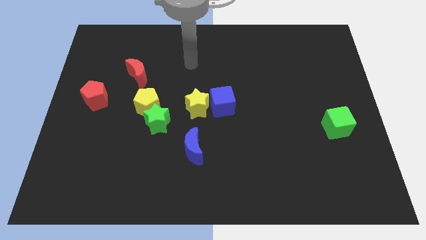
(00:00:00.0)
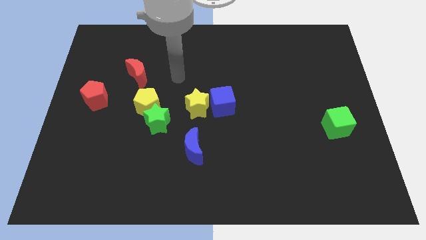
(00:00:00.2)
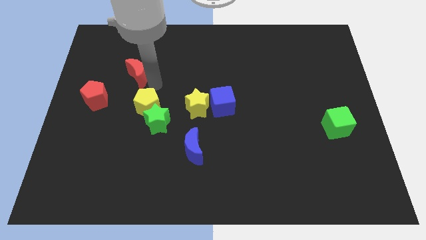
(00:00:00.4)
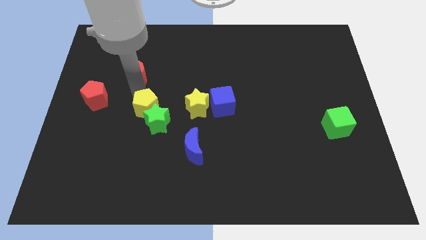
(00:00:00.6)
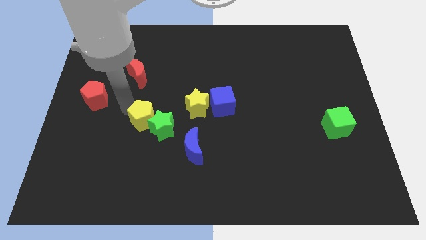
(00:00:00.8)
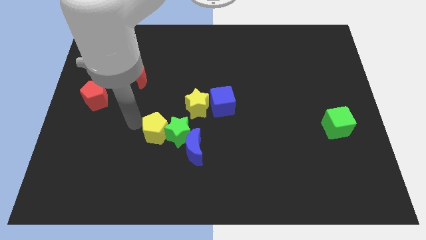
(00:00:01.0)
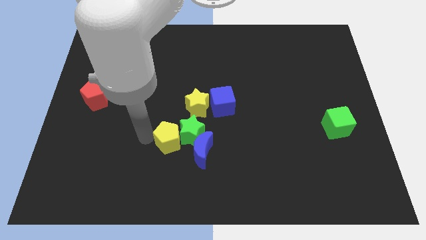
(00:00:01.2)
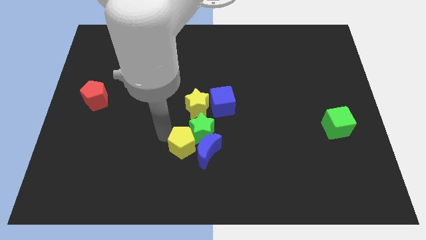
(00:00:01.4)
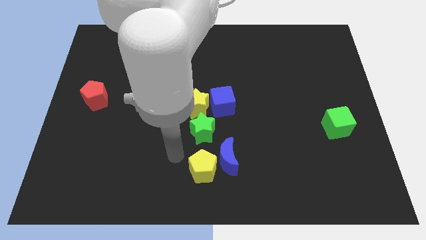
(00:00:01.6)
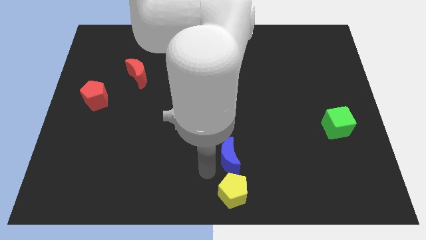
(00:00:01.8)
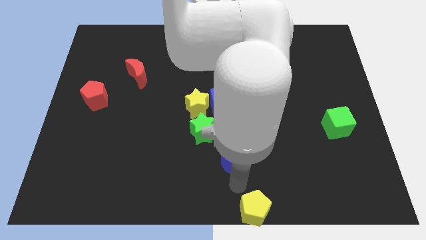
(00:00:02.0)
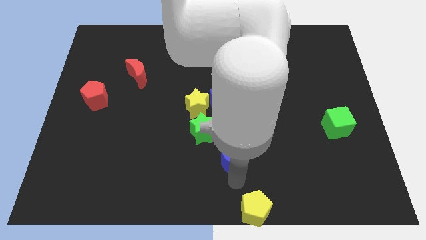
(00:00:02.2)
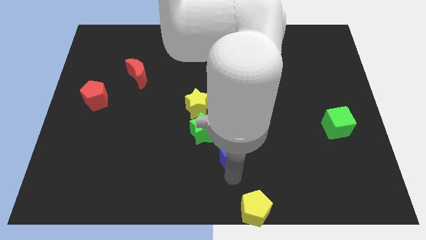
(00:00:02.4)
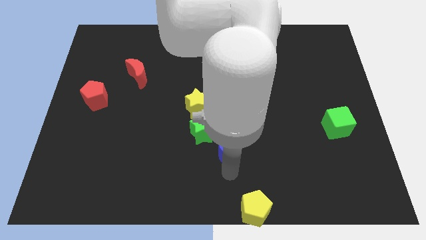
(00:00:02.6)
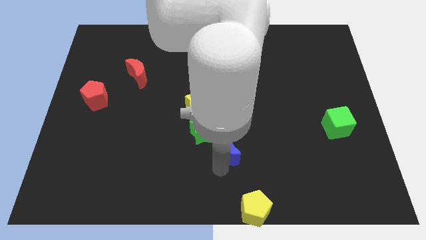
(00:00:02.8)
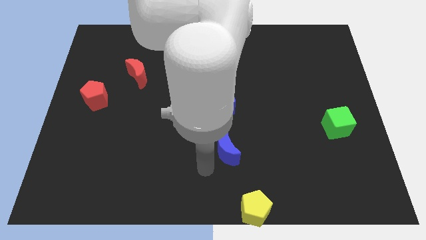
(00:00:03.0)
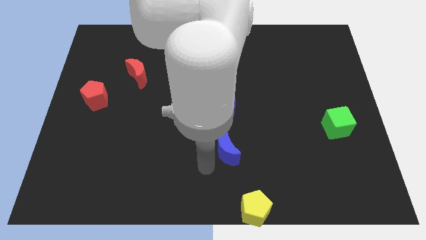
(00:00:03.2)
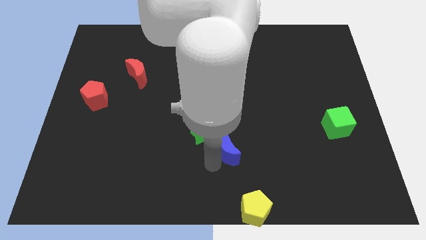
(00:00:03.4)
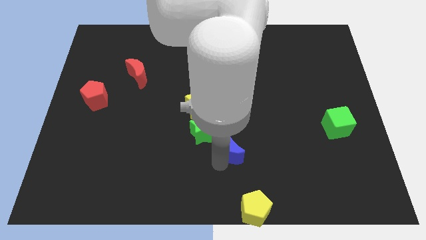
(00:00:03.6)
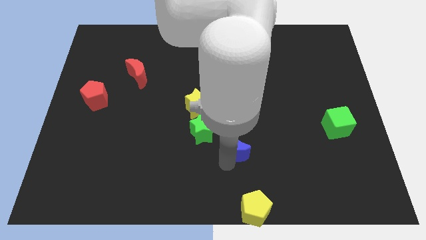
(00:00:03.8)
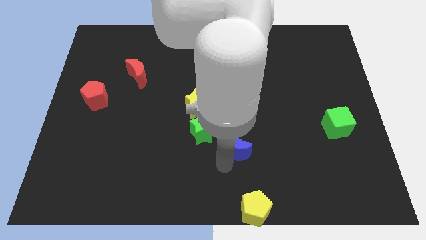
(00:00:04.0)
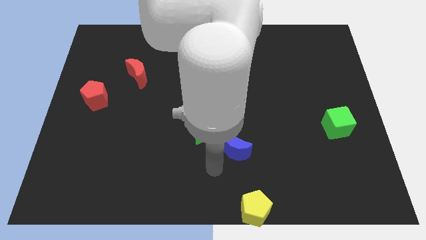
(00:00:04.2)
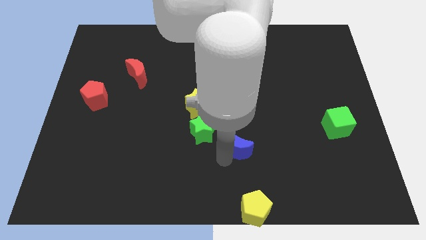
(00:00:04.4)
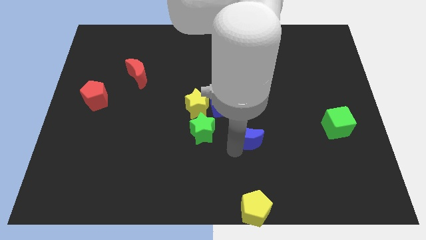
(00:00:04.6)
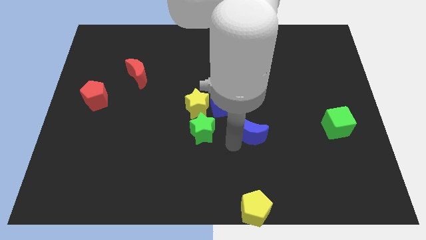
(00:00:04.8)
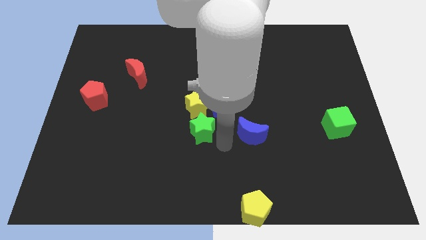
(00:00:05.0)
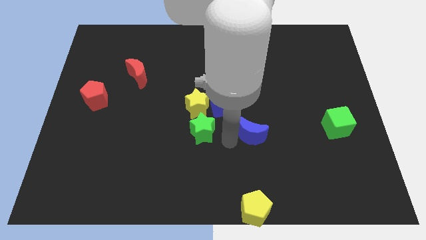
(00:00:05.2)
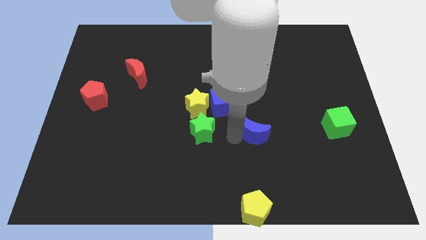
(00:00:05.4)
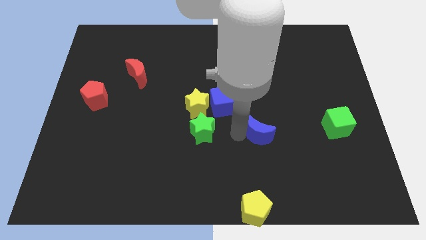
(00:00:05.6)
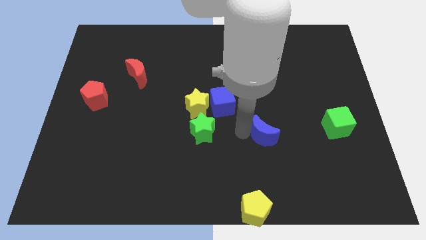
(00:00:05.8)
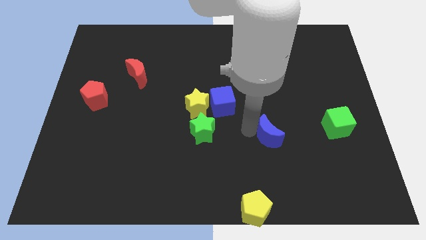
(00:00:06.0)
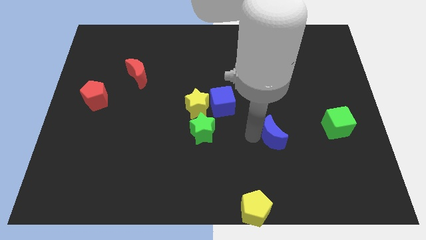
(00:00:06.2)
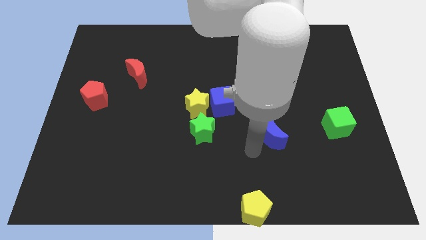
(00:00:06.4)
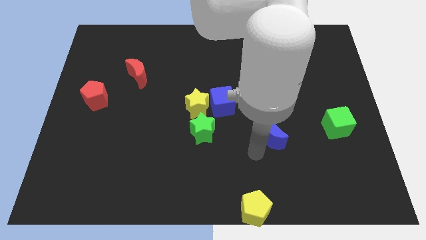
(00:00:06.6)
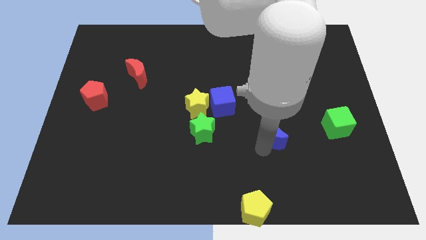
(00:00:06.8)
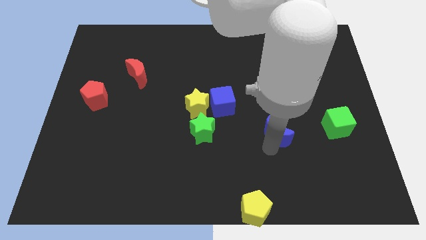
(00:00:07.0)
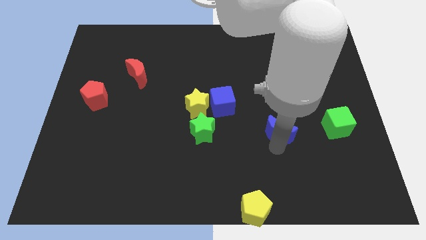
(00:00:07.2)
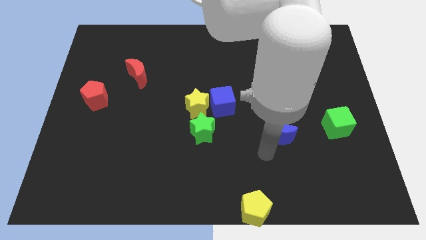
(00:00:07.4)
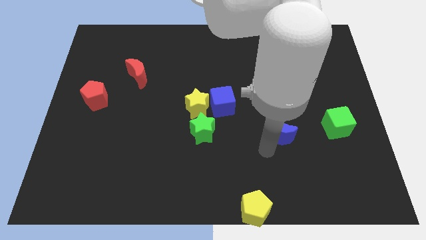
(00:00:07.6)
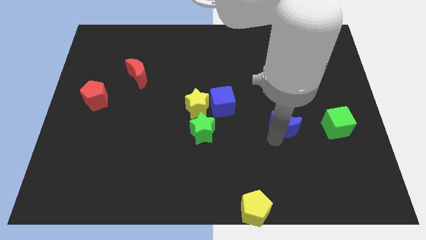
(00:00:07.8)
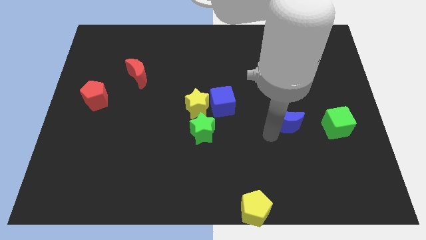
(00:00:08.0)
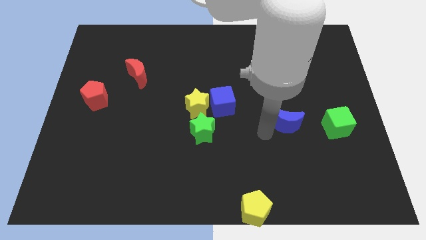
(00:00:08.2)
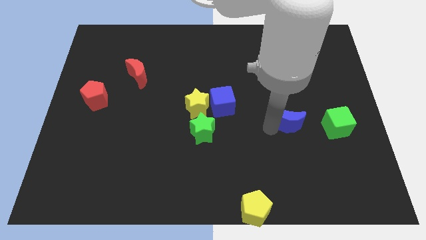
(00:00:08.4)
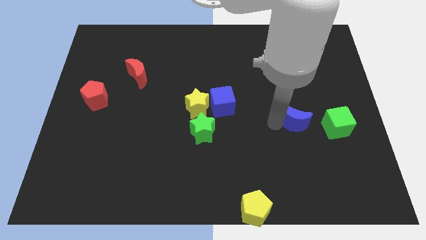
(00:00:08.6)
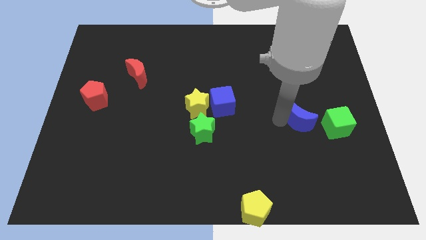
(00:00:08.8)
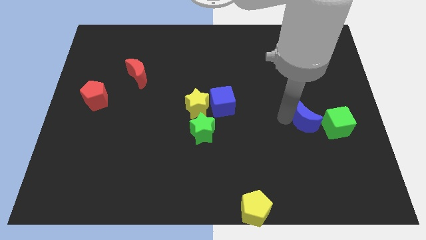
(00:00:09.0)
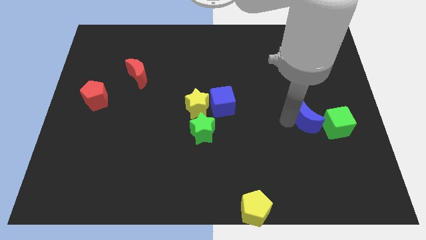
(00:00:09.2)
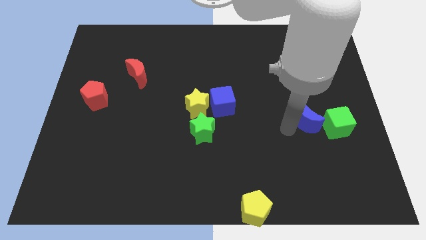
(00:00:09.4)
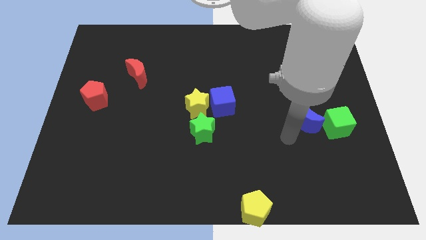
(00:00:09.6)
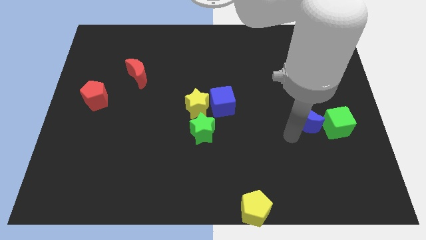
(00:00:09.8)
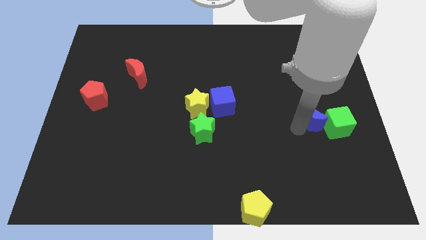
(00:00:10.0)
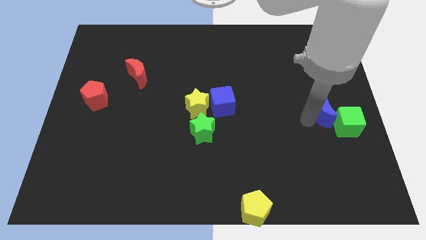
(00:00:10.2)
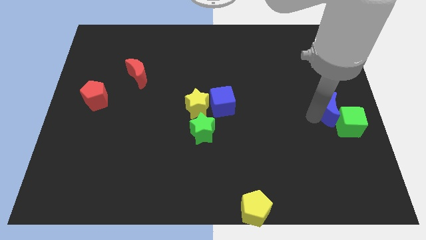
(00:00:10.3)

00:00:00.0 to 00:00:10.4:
move the blue moon to the center right

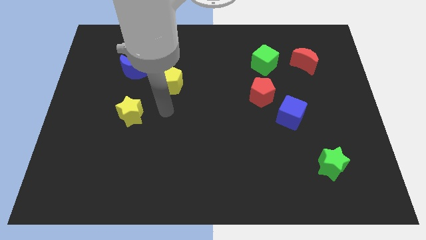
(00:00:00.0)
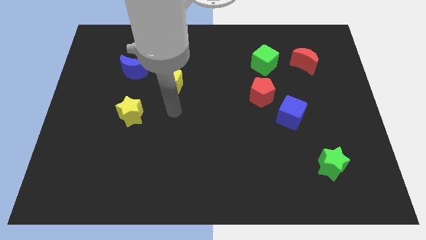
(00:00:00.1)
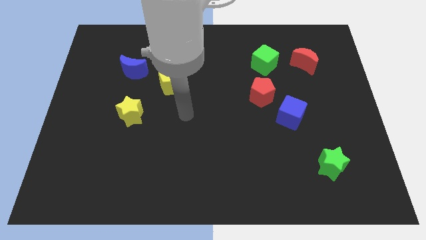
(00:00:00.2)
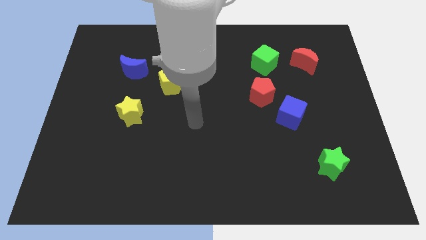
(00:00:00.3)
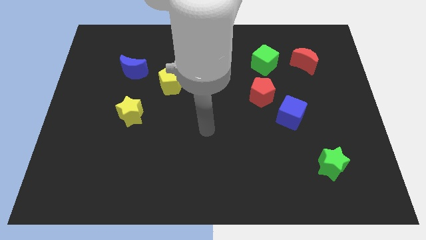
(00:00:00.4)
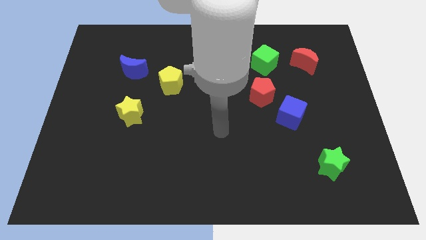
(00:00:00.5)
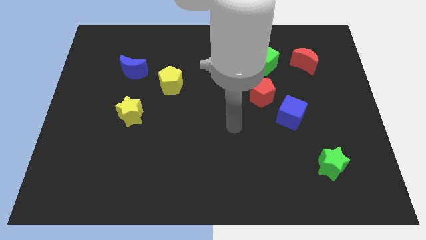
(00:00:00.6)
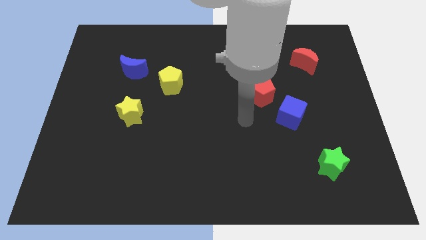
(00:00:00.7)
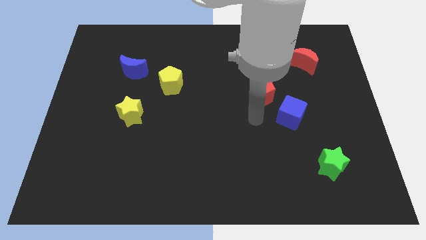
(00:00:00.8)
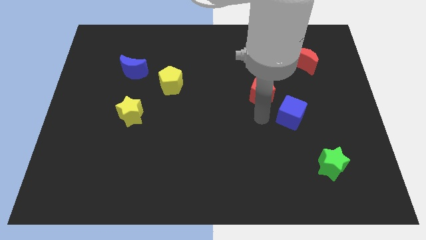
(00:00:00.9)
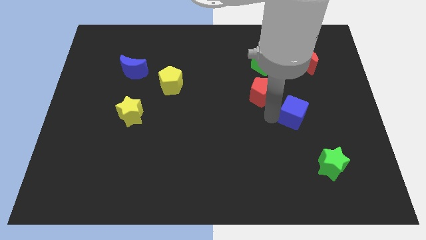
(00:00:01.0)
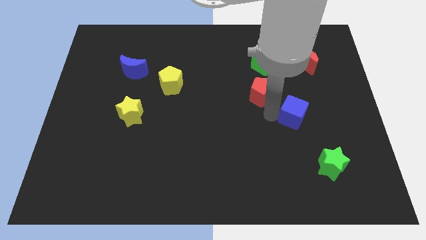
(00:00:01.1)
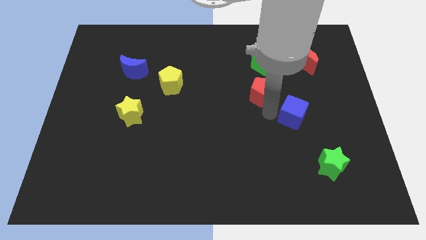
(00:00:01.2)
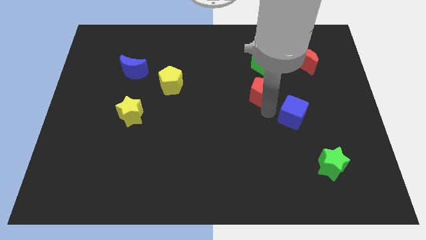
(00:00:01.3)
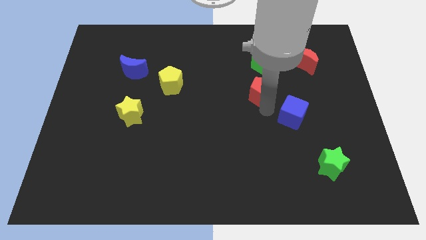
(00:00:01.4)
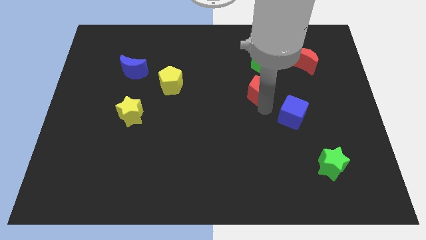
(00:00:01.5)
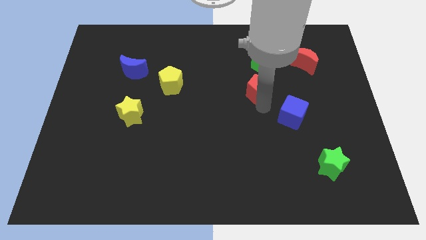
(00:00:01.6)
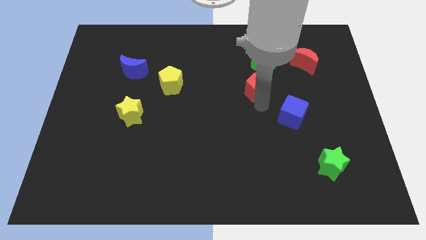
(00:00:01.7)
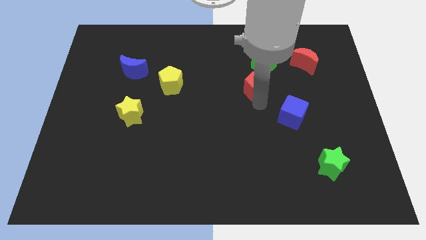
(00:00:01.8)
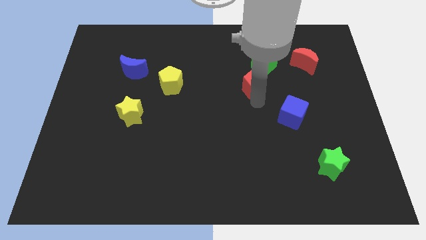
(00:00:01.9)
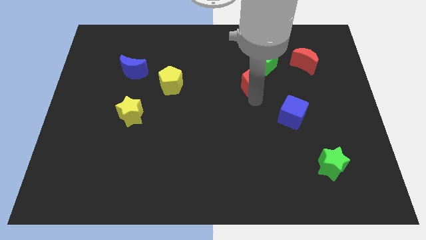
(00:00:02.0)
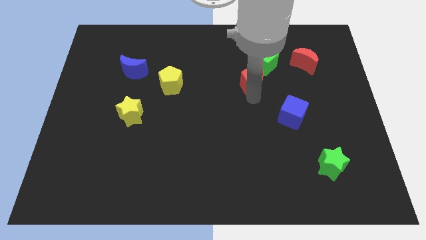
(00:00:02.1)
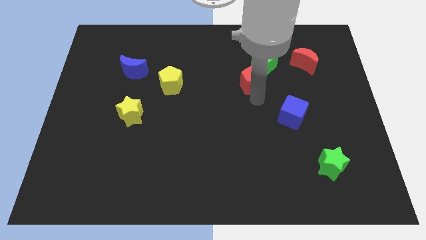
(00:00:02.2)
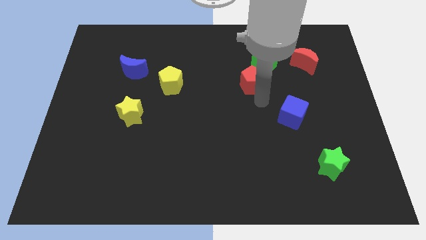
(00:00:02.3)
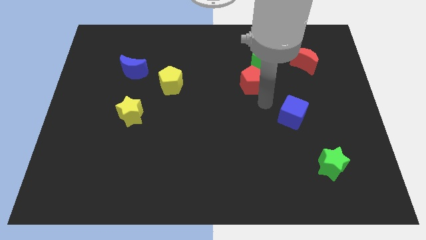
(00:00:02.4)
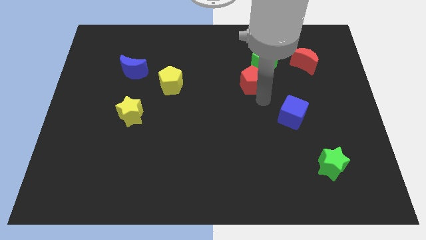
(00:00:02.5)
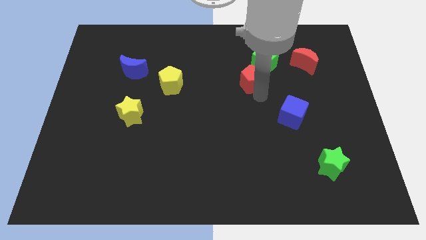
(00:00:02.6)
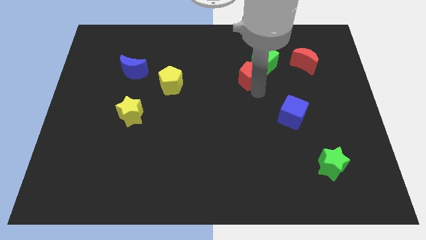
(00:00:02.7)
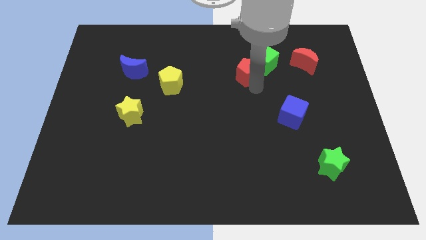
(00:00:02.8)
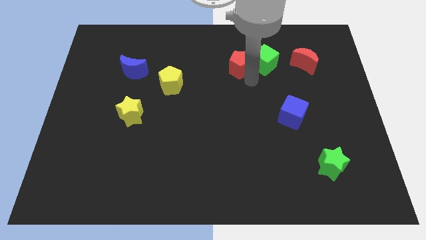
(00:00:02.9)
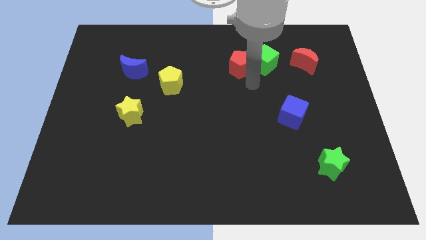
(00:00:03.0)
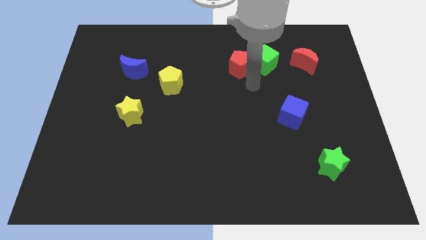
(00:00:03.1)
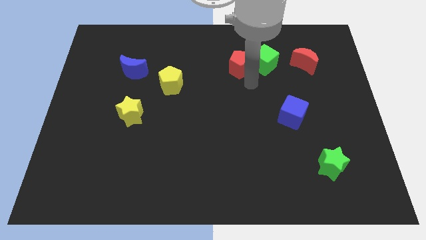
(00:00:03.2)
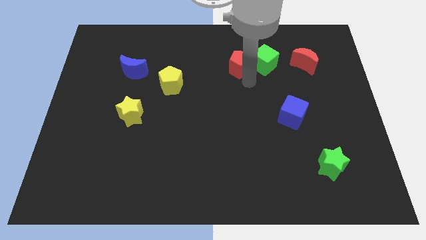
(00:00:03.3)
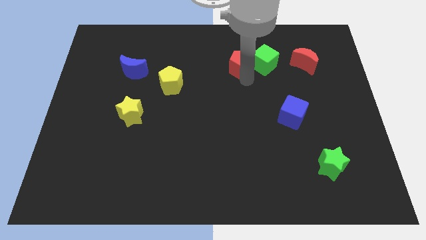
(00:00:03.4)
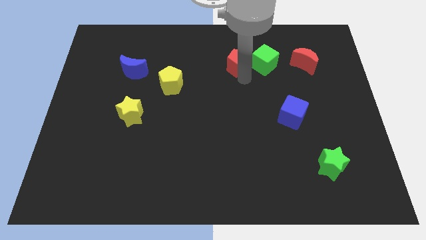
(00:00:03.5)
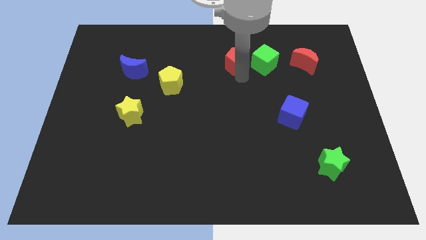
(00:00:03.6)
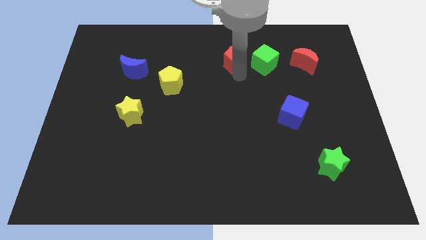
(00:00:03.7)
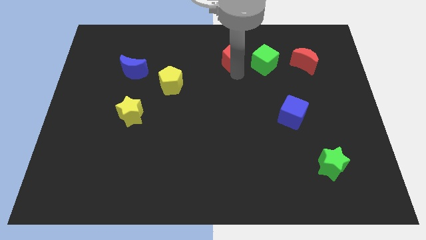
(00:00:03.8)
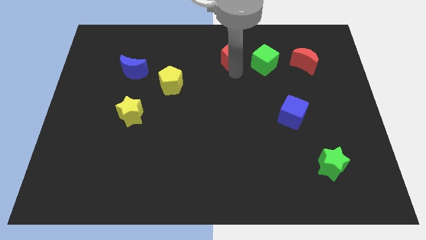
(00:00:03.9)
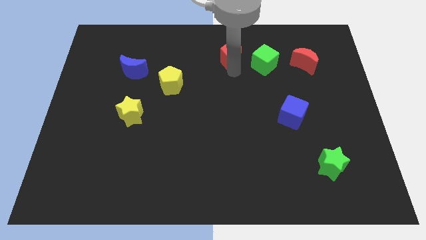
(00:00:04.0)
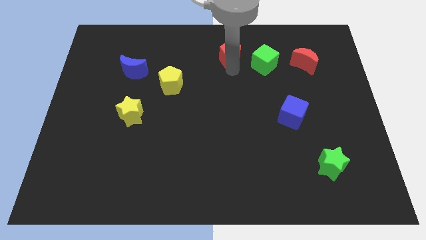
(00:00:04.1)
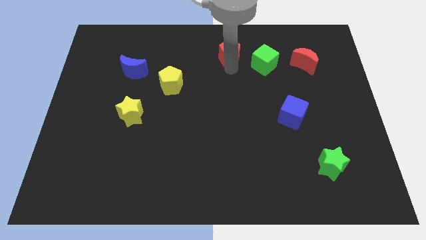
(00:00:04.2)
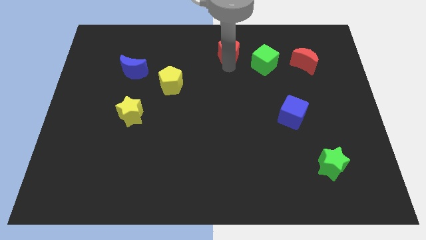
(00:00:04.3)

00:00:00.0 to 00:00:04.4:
push the red pentagon to the top
